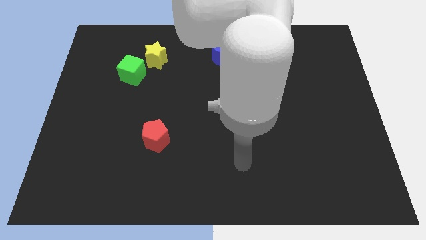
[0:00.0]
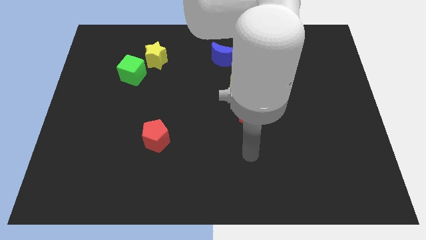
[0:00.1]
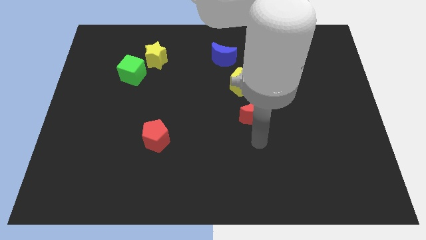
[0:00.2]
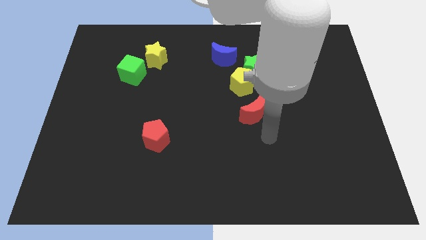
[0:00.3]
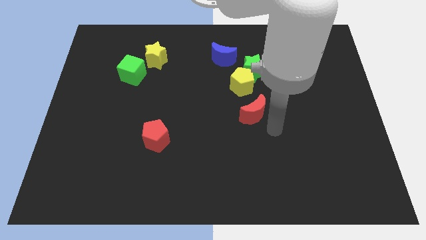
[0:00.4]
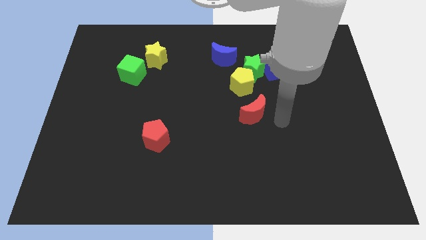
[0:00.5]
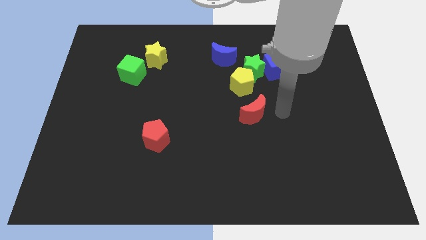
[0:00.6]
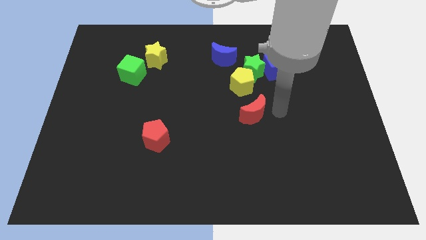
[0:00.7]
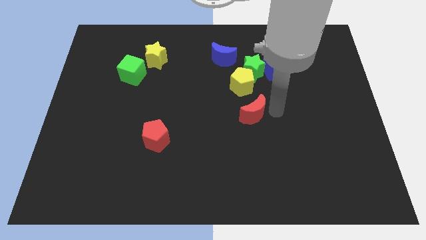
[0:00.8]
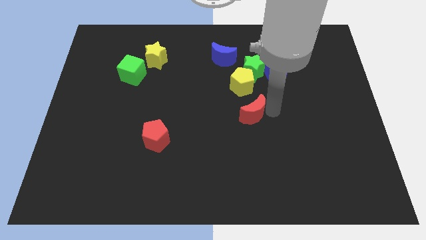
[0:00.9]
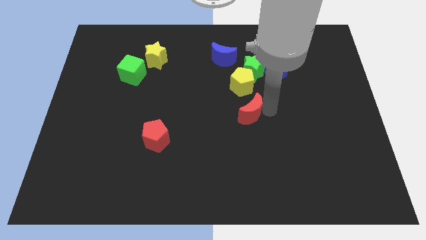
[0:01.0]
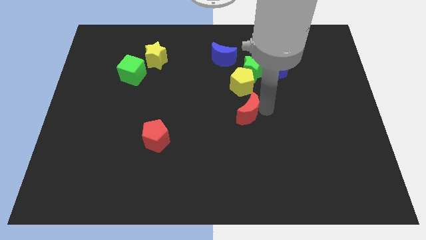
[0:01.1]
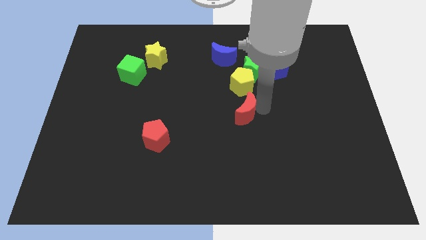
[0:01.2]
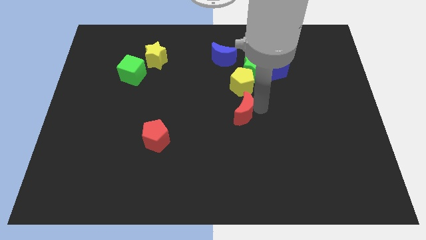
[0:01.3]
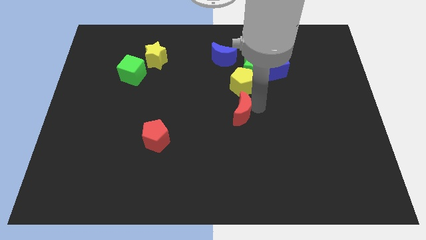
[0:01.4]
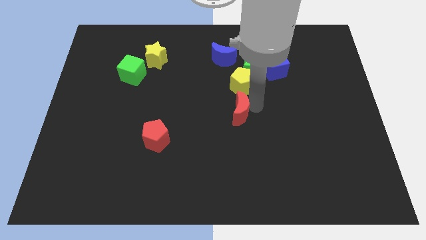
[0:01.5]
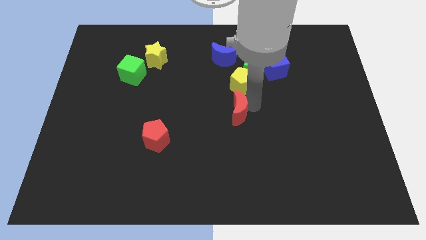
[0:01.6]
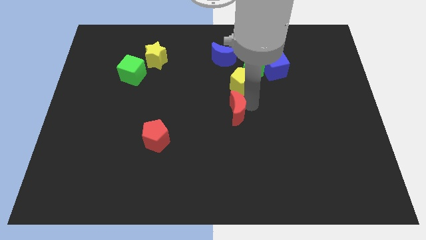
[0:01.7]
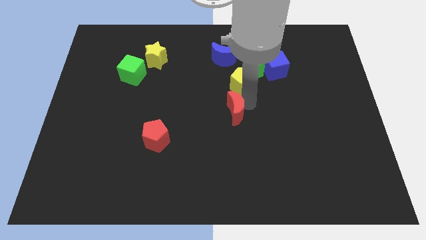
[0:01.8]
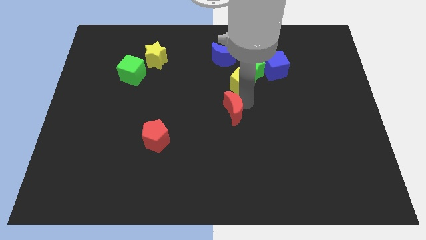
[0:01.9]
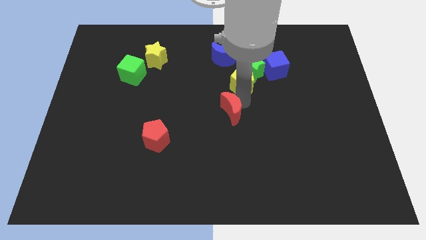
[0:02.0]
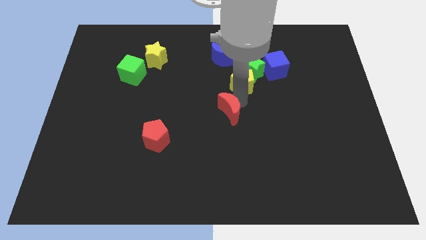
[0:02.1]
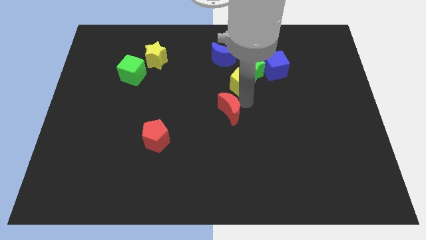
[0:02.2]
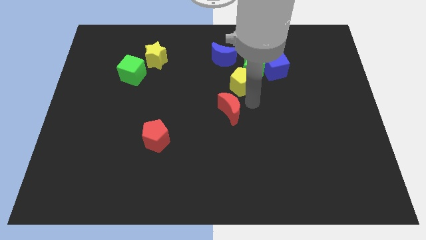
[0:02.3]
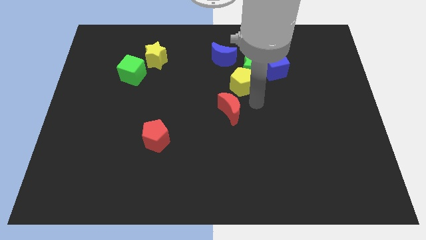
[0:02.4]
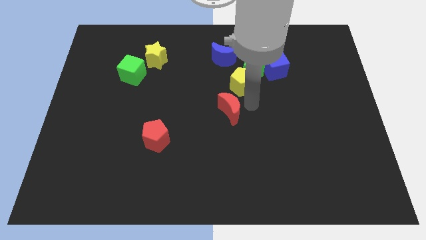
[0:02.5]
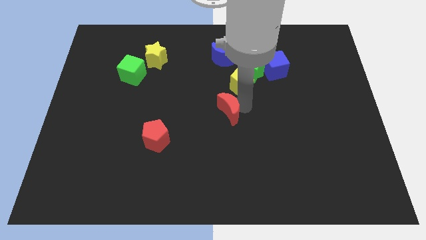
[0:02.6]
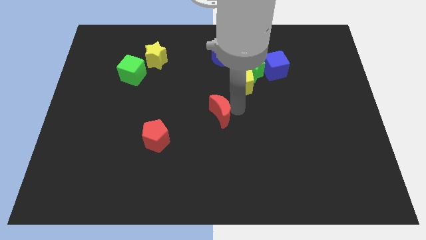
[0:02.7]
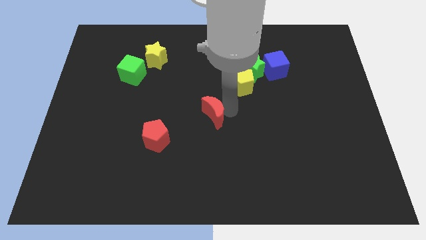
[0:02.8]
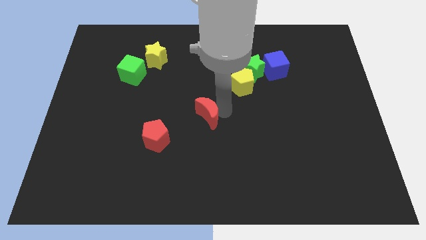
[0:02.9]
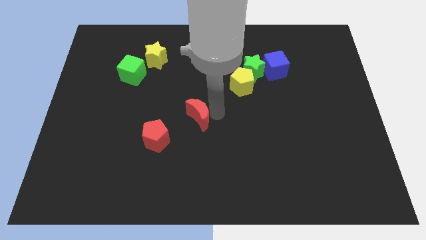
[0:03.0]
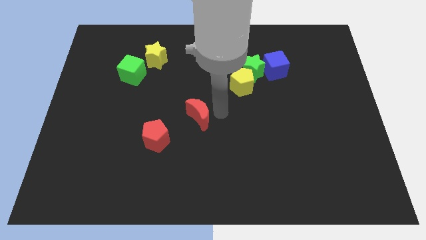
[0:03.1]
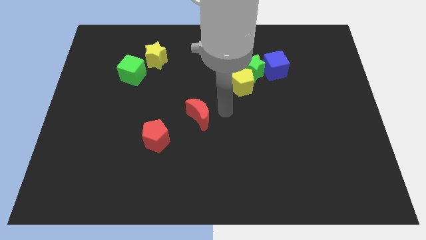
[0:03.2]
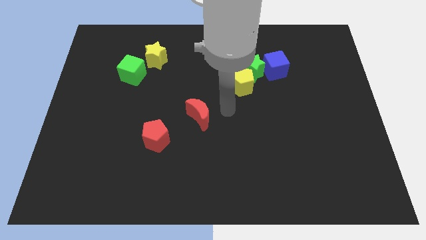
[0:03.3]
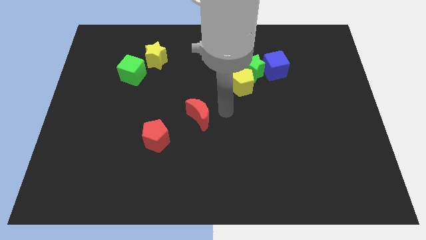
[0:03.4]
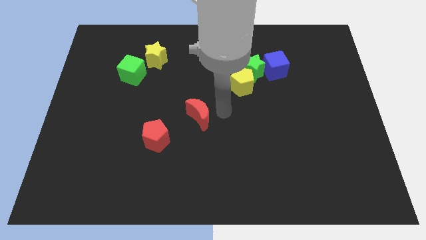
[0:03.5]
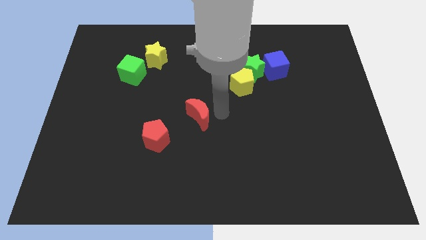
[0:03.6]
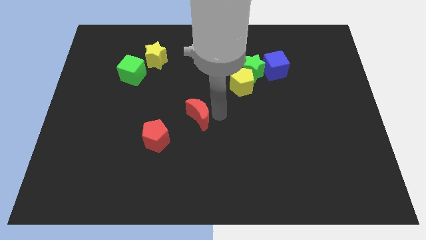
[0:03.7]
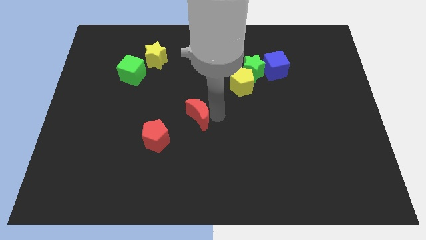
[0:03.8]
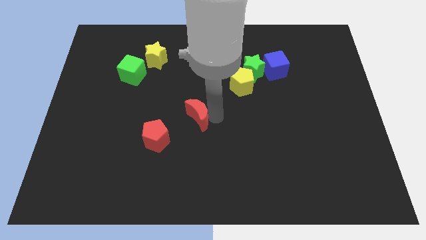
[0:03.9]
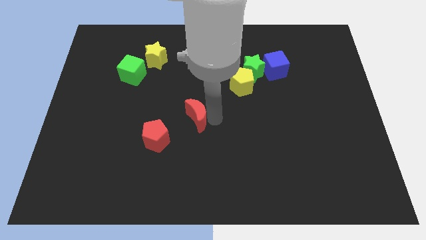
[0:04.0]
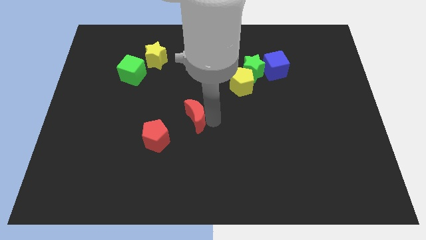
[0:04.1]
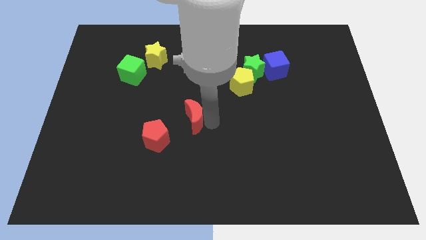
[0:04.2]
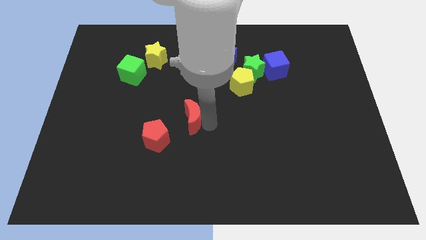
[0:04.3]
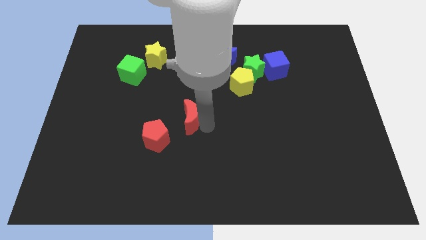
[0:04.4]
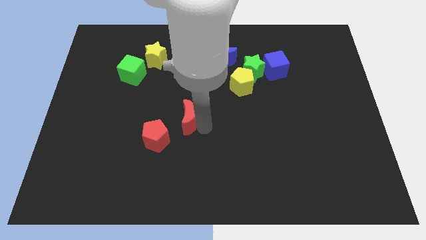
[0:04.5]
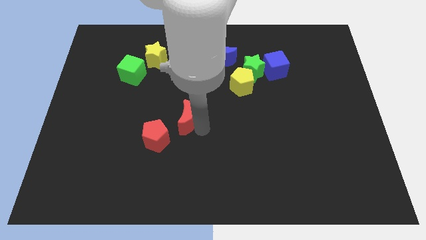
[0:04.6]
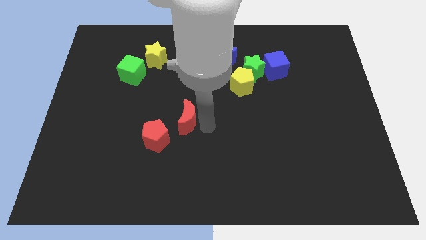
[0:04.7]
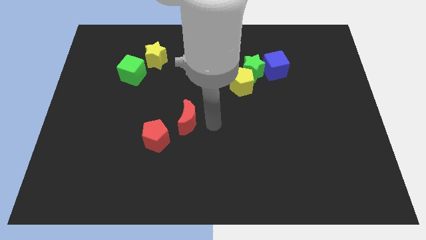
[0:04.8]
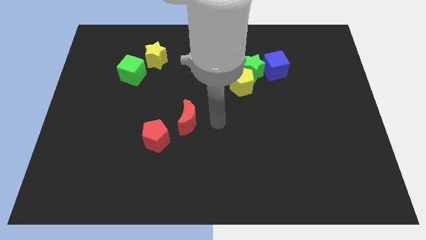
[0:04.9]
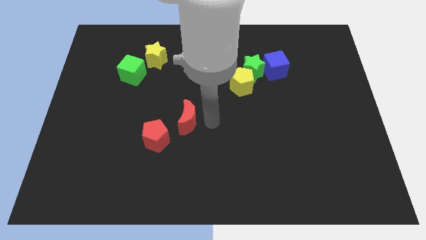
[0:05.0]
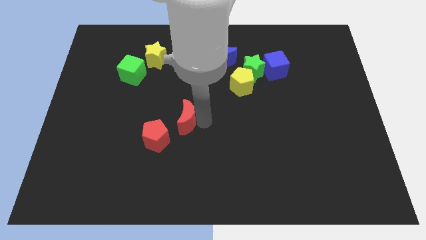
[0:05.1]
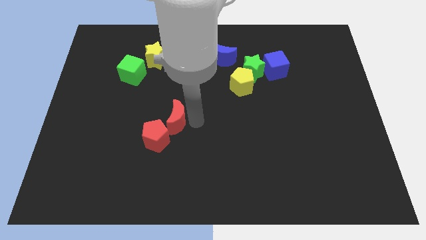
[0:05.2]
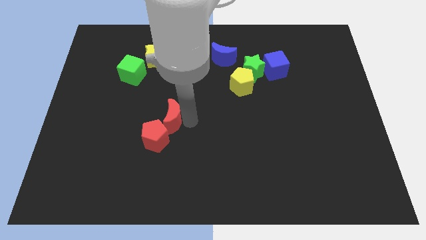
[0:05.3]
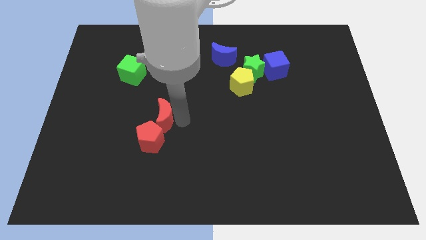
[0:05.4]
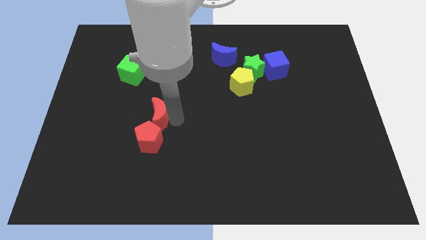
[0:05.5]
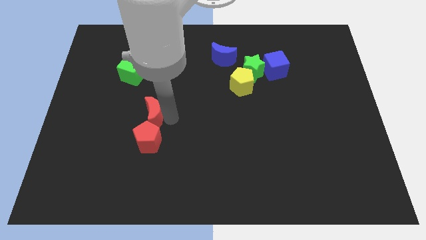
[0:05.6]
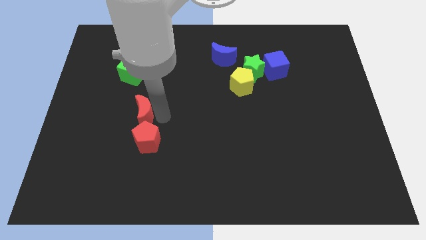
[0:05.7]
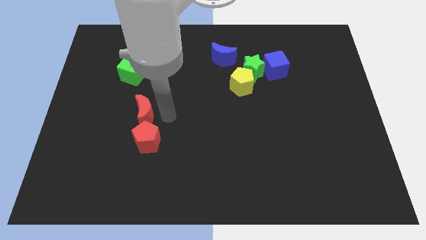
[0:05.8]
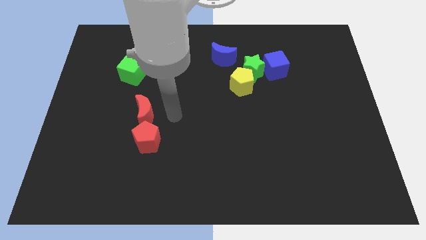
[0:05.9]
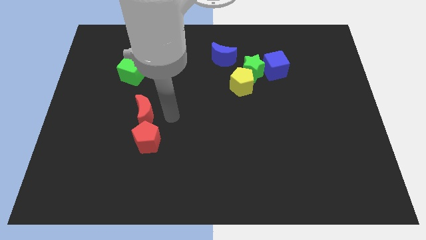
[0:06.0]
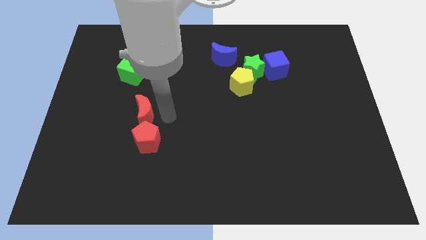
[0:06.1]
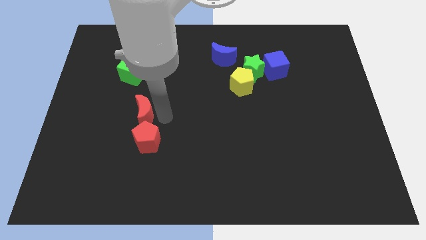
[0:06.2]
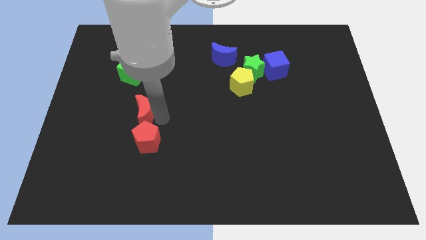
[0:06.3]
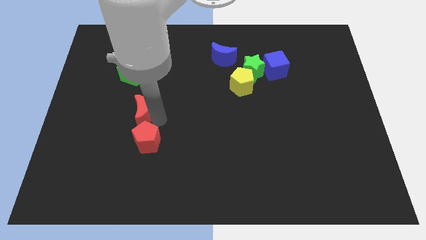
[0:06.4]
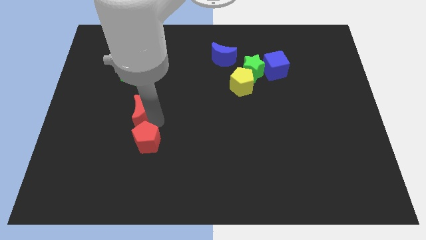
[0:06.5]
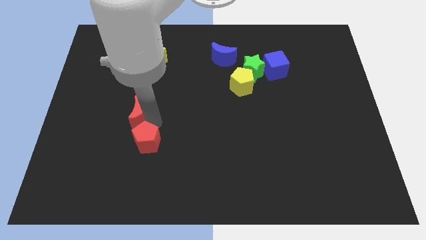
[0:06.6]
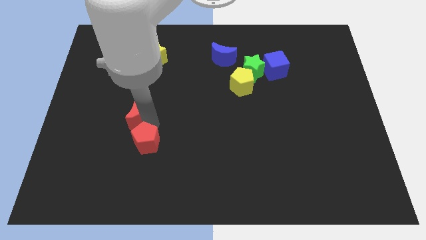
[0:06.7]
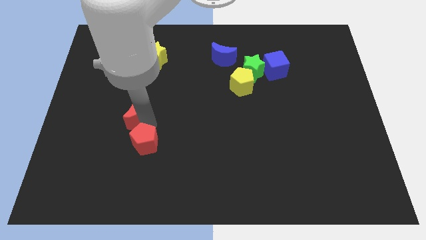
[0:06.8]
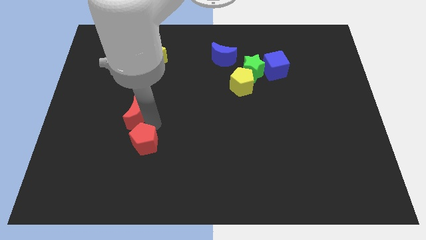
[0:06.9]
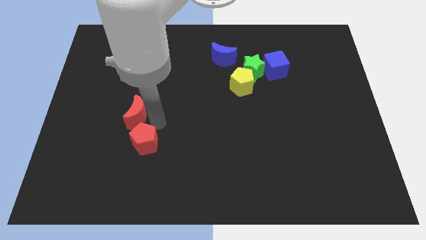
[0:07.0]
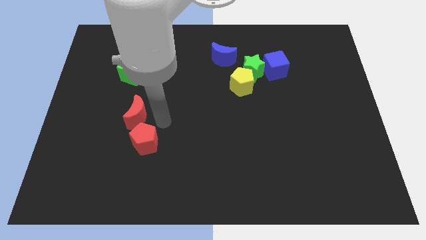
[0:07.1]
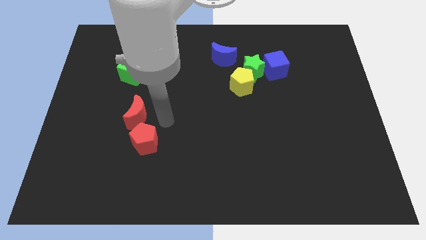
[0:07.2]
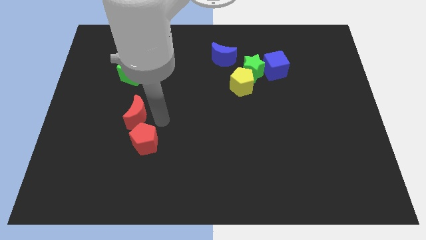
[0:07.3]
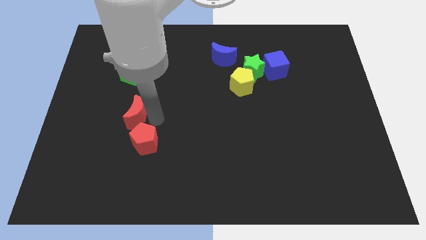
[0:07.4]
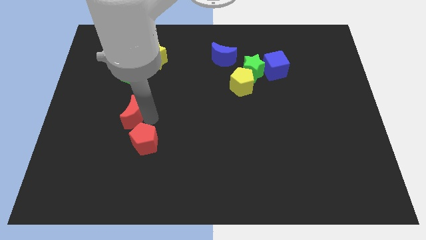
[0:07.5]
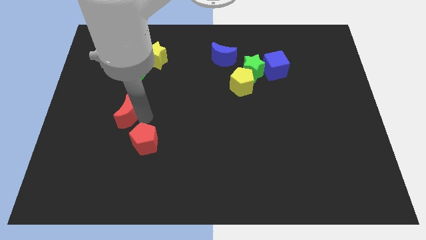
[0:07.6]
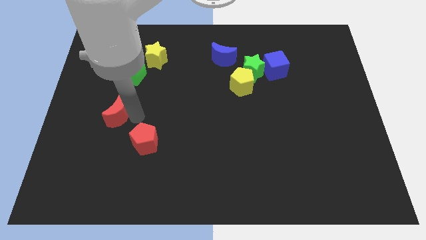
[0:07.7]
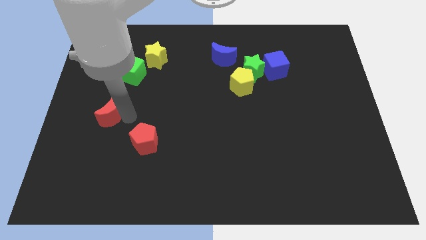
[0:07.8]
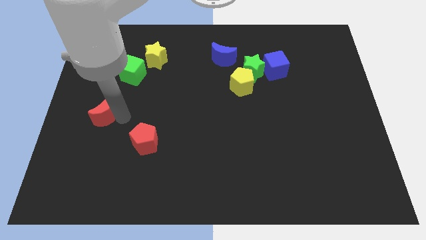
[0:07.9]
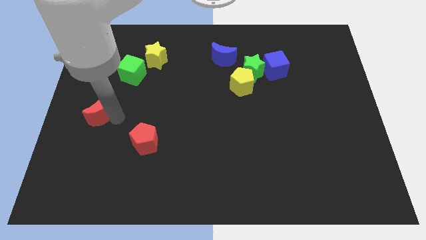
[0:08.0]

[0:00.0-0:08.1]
slide the red moon to the center left

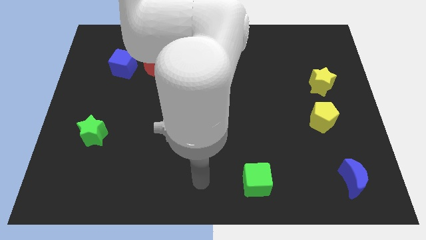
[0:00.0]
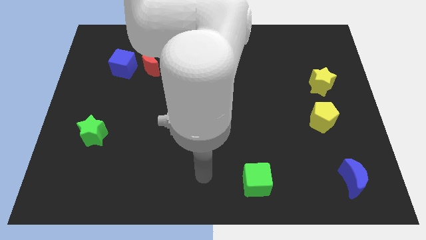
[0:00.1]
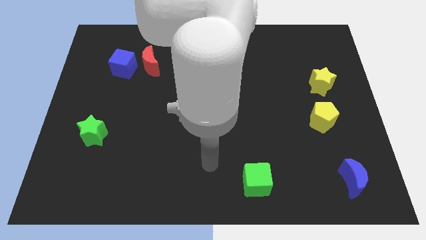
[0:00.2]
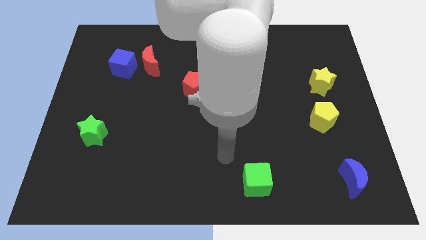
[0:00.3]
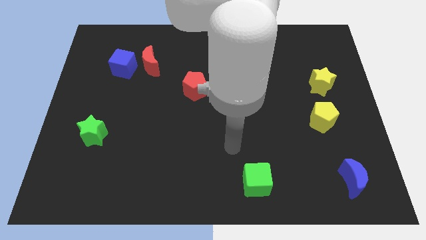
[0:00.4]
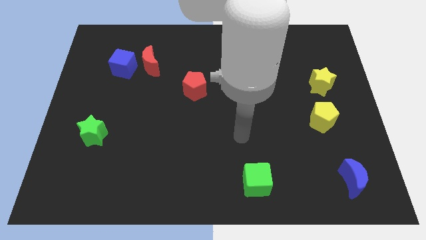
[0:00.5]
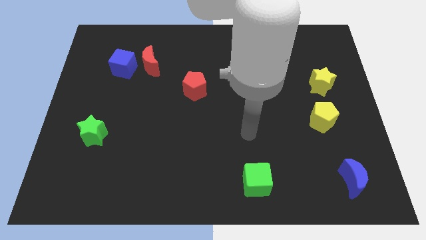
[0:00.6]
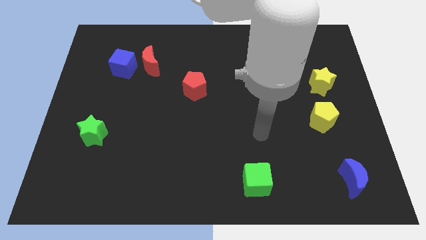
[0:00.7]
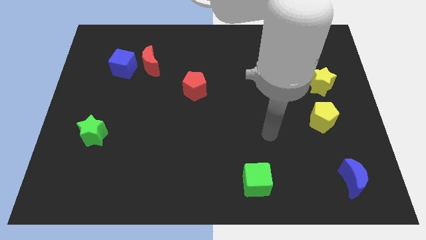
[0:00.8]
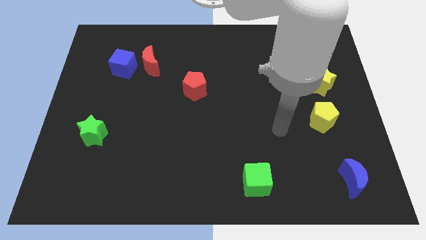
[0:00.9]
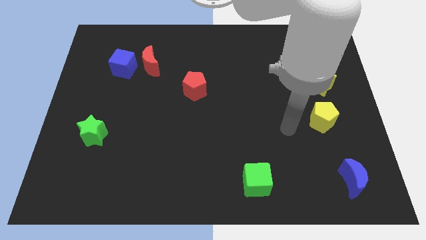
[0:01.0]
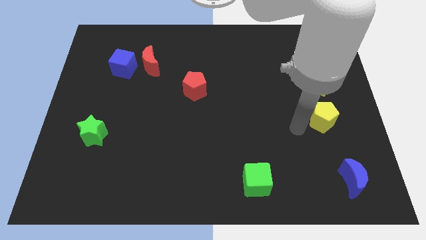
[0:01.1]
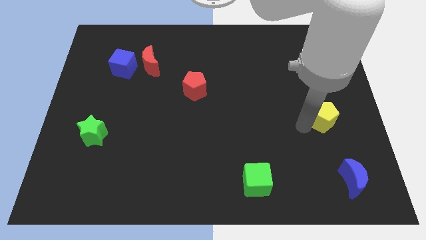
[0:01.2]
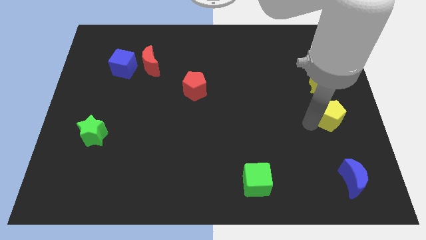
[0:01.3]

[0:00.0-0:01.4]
put the yellow pentagon to the center right
